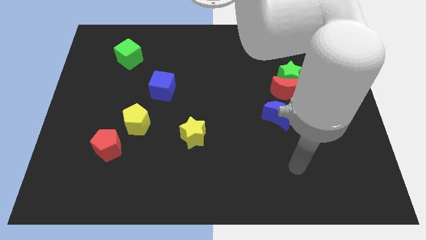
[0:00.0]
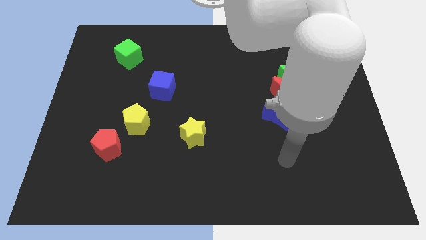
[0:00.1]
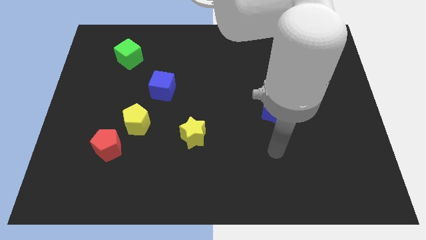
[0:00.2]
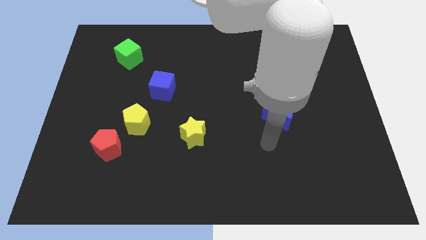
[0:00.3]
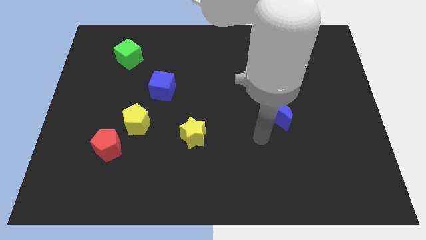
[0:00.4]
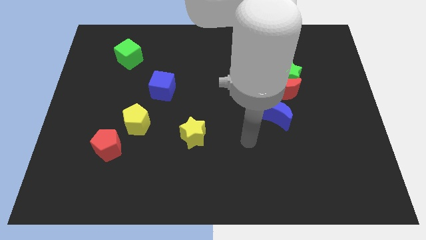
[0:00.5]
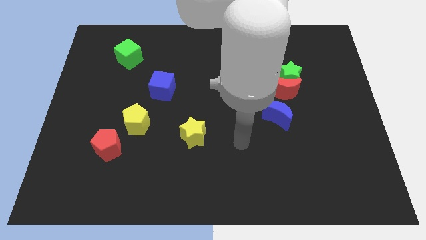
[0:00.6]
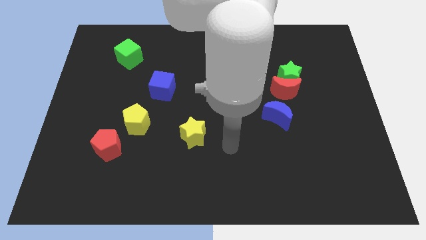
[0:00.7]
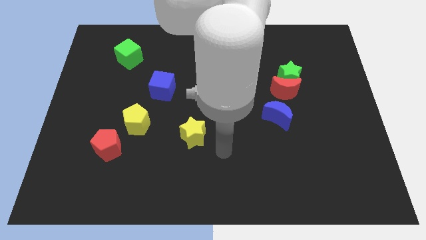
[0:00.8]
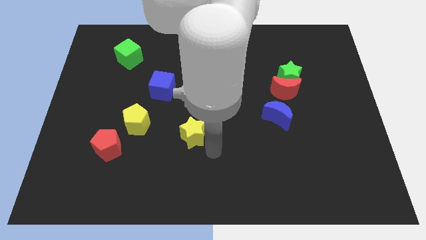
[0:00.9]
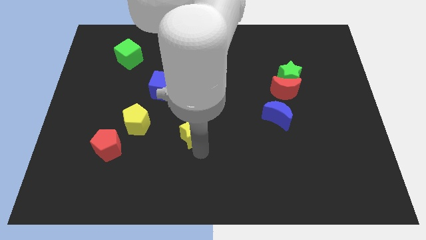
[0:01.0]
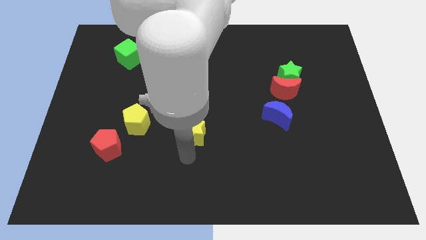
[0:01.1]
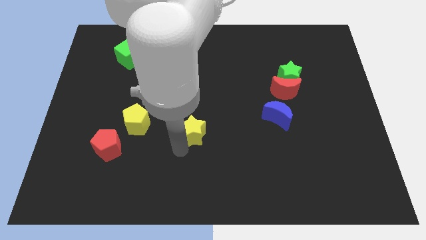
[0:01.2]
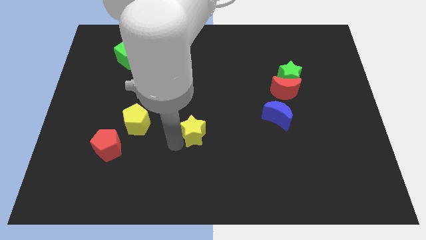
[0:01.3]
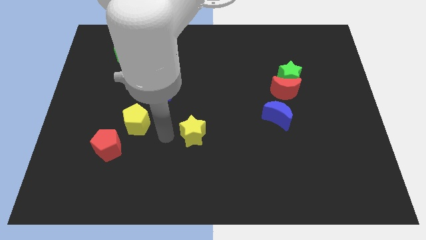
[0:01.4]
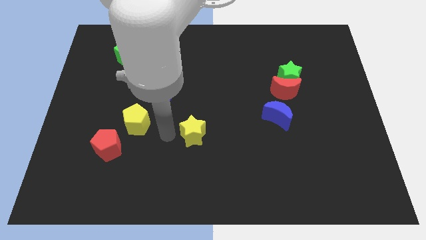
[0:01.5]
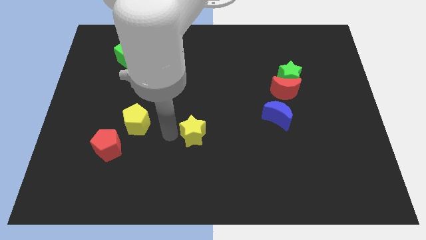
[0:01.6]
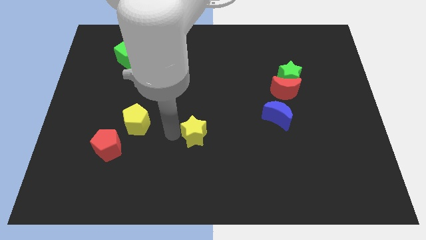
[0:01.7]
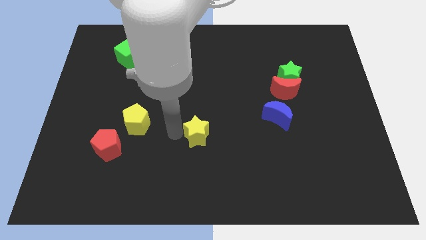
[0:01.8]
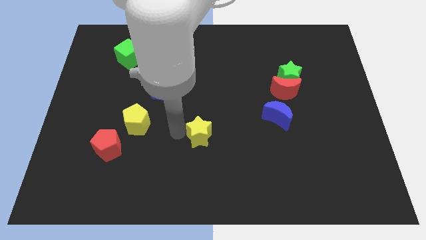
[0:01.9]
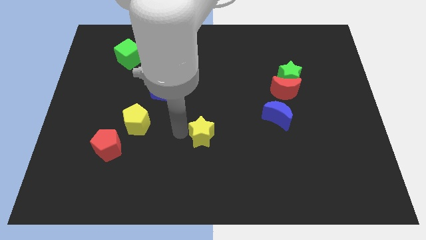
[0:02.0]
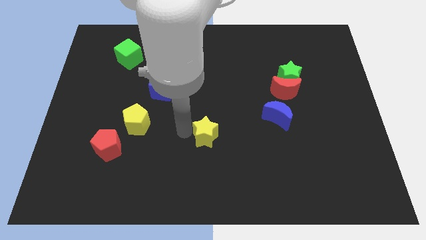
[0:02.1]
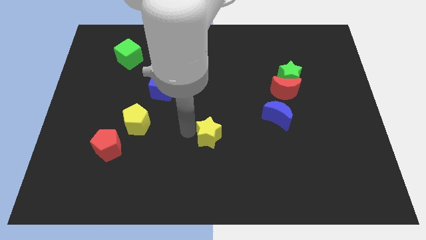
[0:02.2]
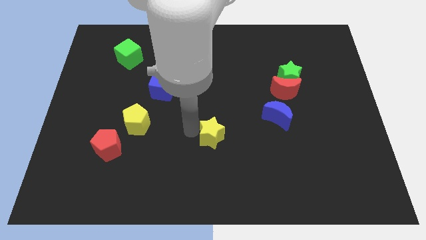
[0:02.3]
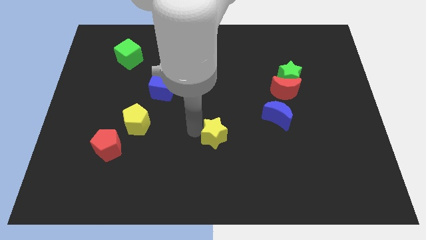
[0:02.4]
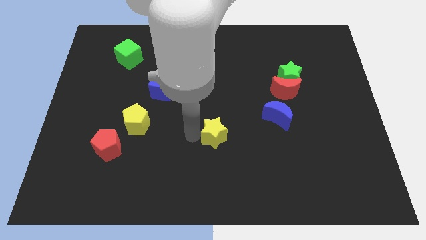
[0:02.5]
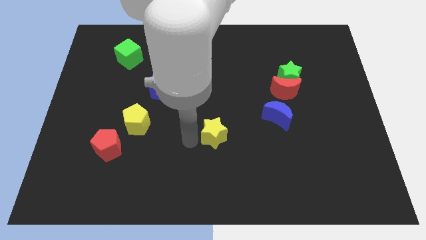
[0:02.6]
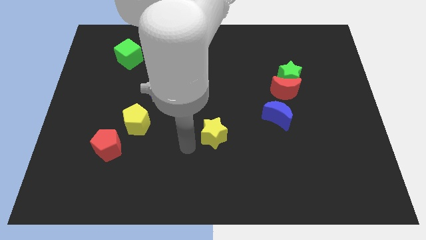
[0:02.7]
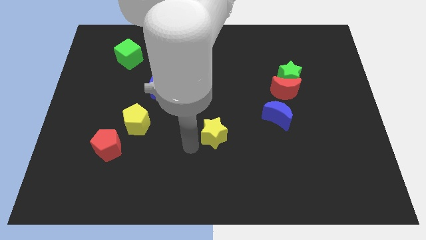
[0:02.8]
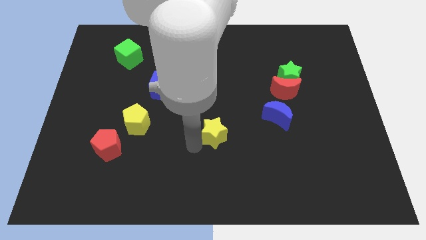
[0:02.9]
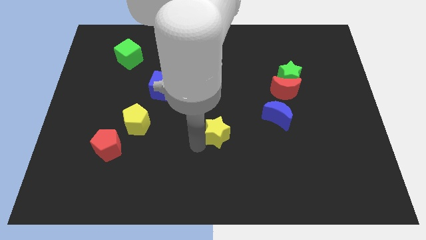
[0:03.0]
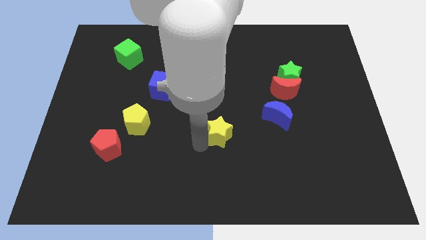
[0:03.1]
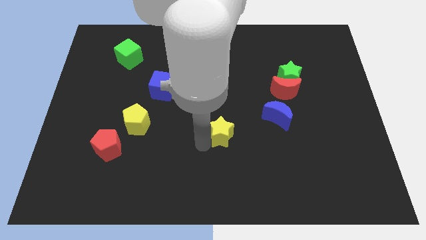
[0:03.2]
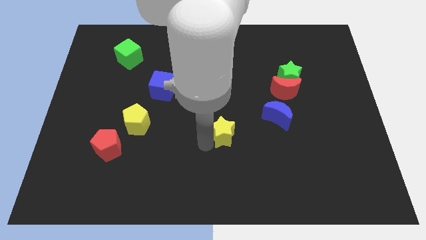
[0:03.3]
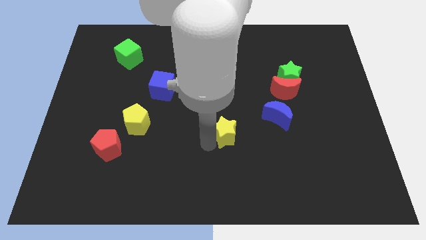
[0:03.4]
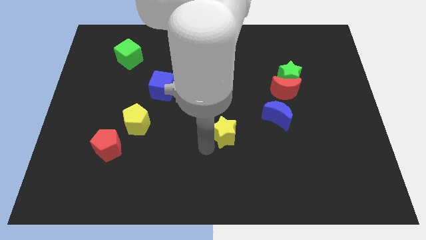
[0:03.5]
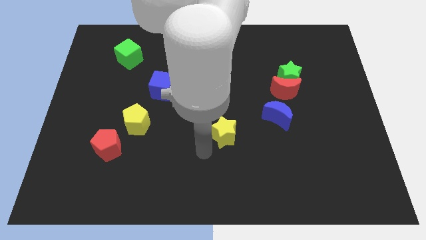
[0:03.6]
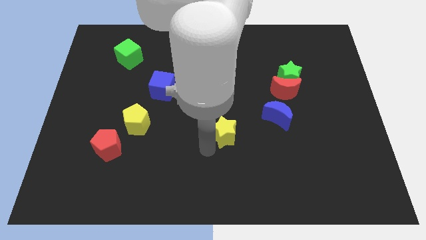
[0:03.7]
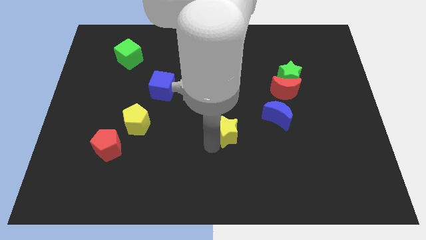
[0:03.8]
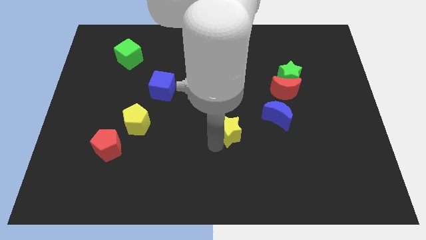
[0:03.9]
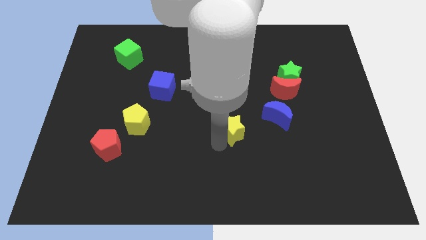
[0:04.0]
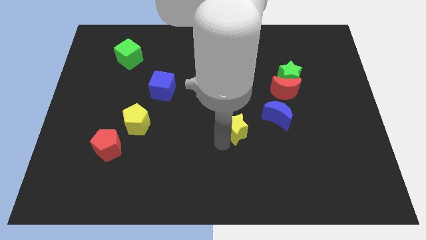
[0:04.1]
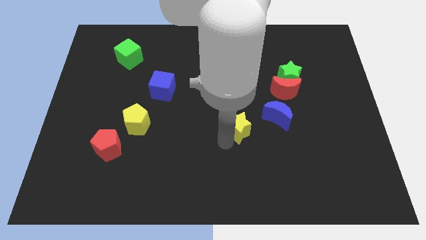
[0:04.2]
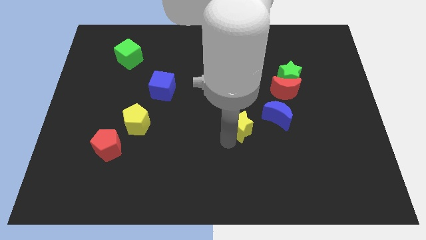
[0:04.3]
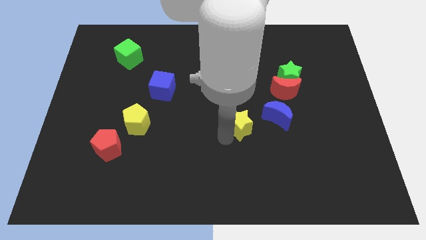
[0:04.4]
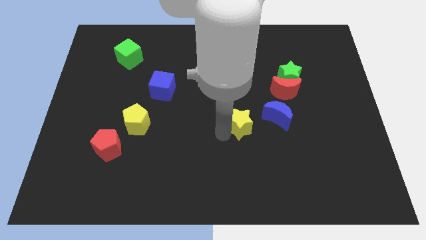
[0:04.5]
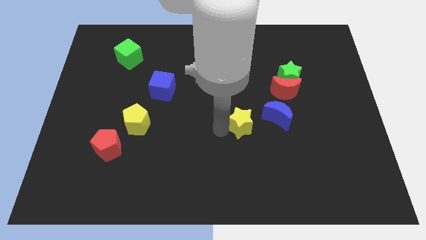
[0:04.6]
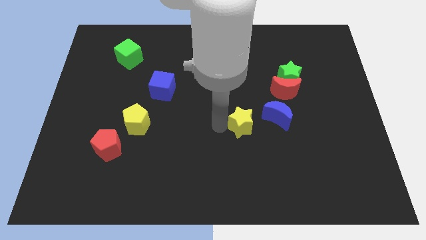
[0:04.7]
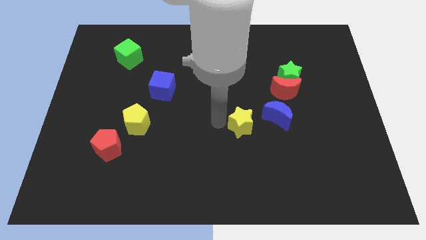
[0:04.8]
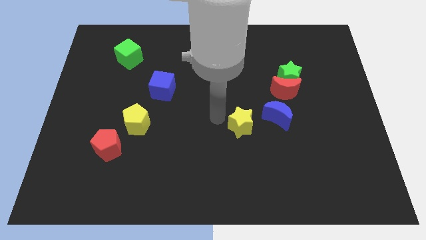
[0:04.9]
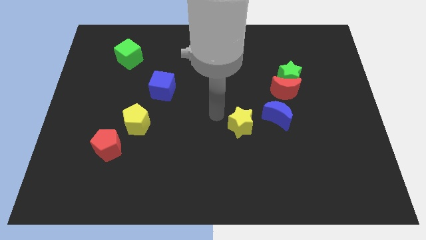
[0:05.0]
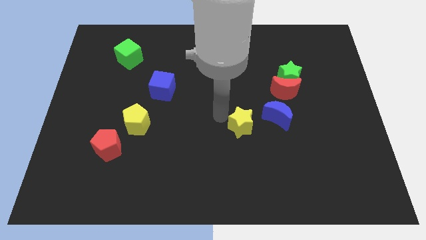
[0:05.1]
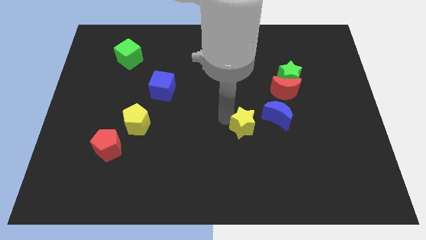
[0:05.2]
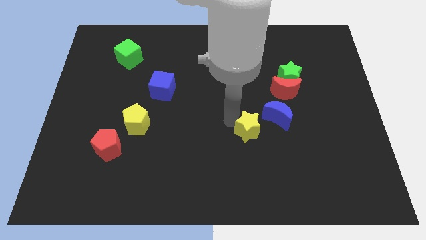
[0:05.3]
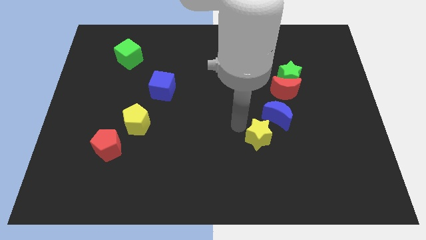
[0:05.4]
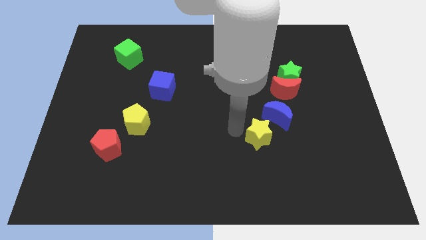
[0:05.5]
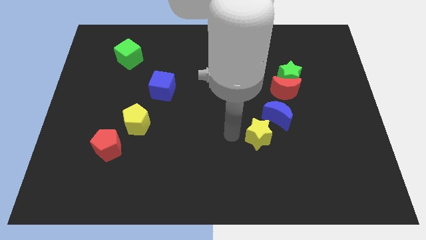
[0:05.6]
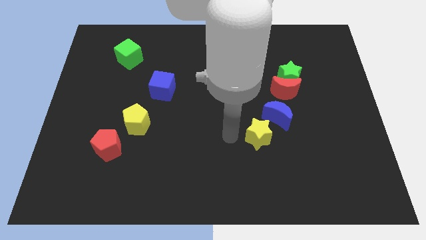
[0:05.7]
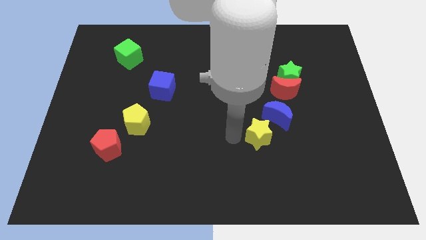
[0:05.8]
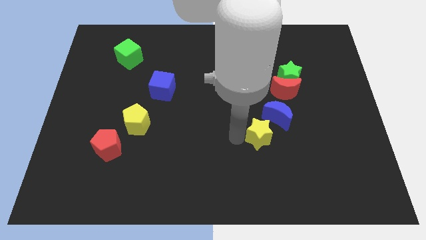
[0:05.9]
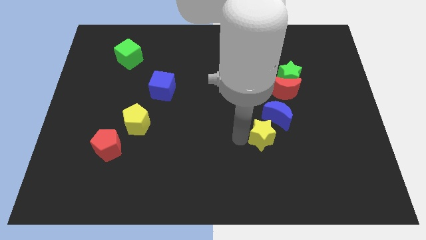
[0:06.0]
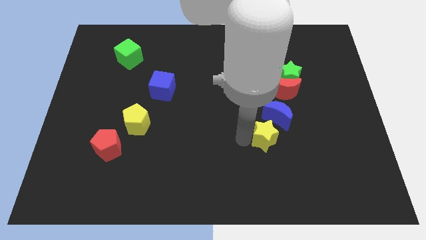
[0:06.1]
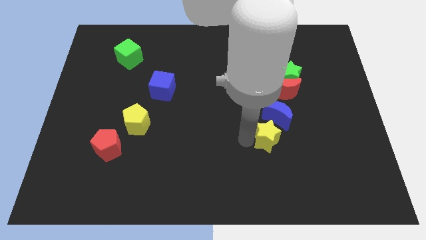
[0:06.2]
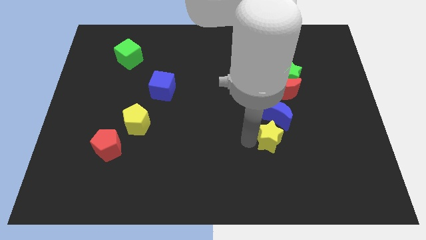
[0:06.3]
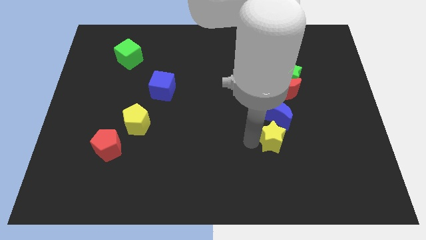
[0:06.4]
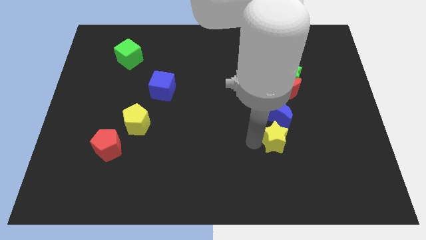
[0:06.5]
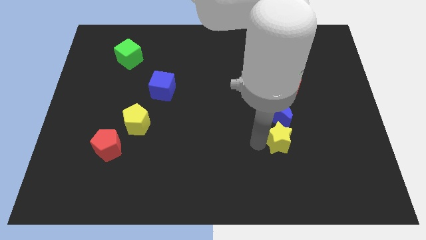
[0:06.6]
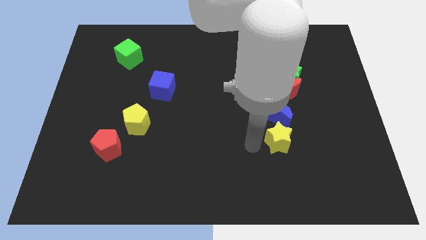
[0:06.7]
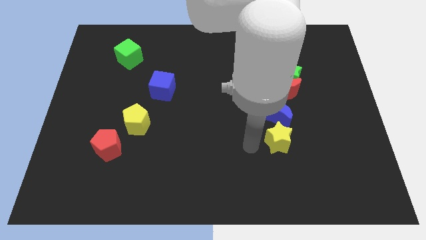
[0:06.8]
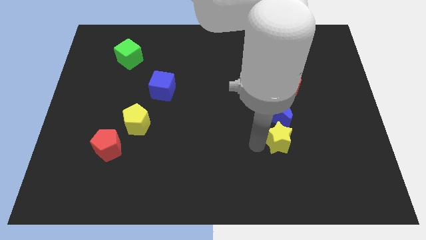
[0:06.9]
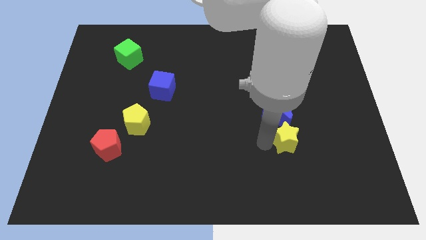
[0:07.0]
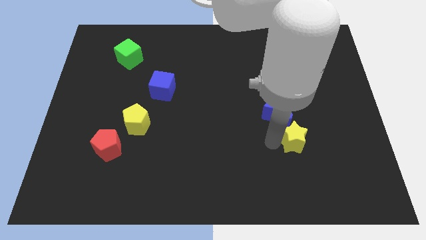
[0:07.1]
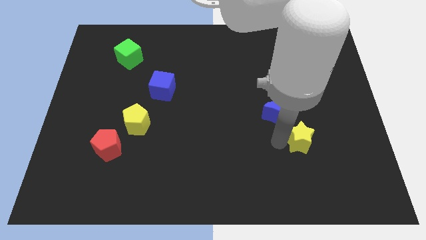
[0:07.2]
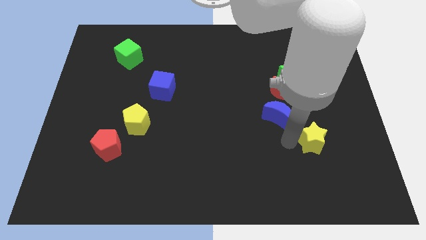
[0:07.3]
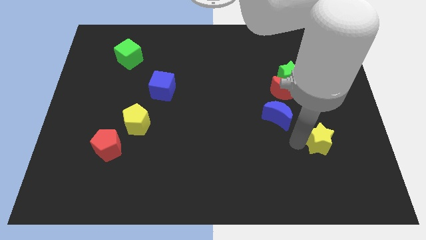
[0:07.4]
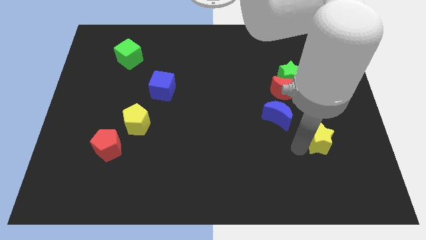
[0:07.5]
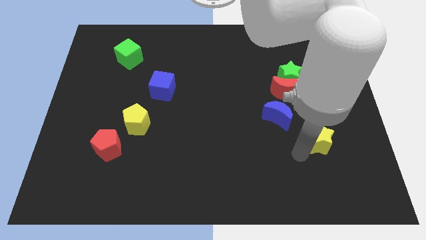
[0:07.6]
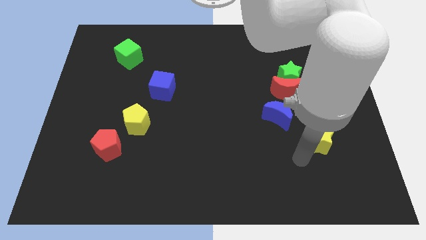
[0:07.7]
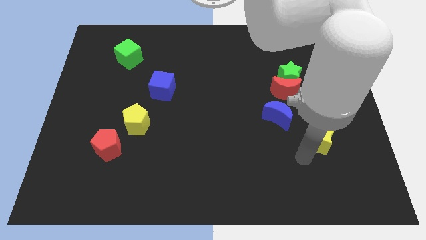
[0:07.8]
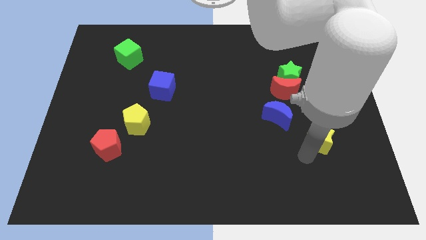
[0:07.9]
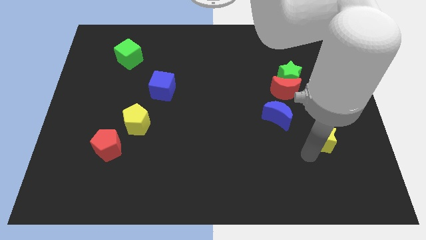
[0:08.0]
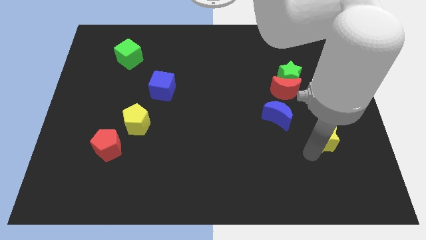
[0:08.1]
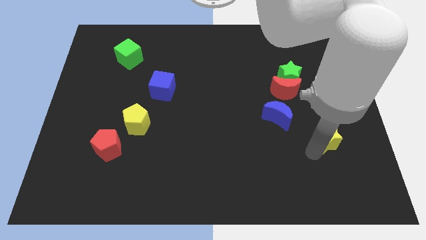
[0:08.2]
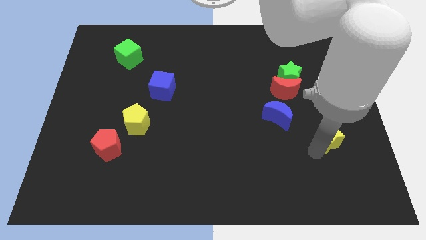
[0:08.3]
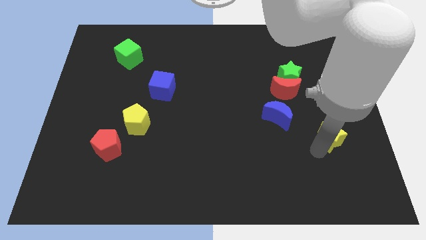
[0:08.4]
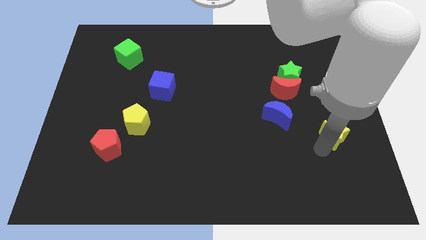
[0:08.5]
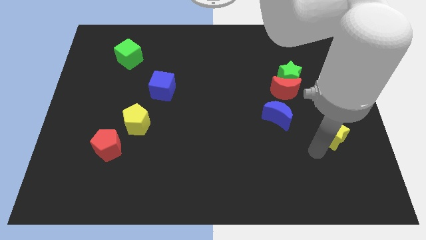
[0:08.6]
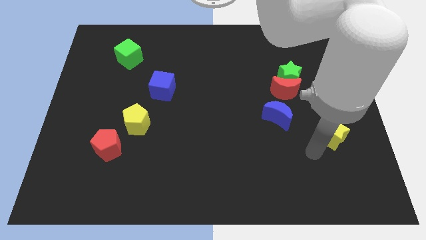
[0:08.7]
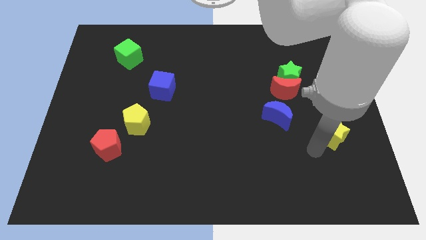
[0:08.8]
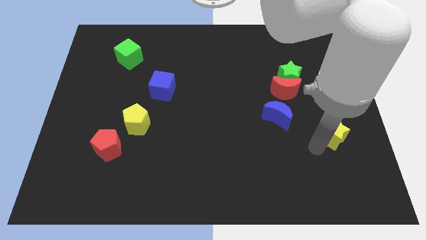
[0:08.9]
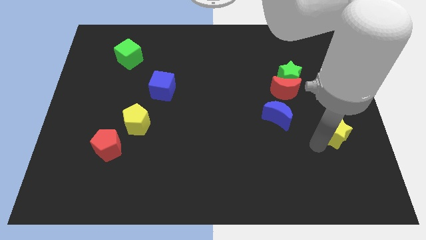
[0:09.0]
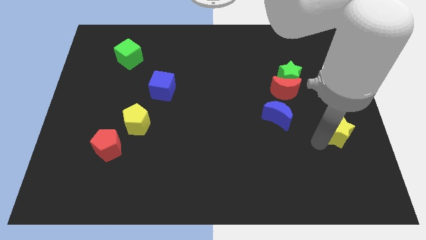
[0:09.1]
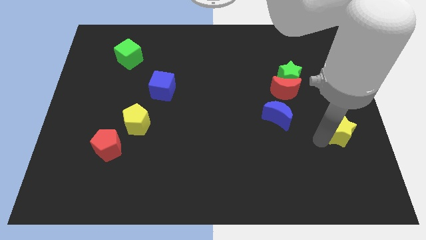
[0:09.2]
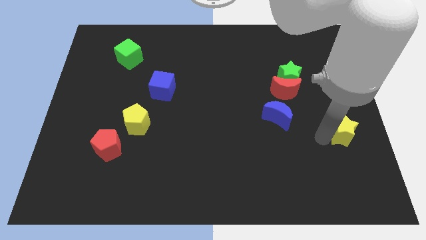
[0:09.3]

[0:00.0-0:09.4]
put the yellow star to the right side
